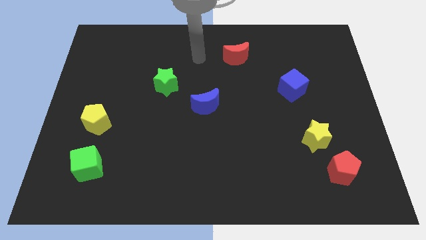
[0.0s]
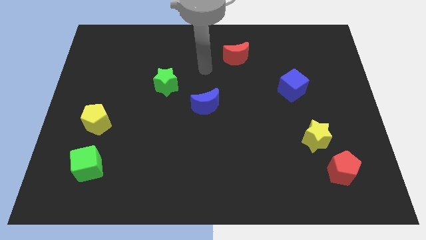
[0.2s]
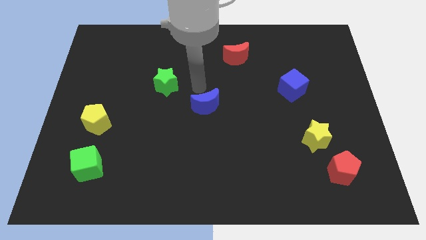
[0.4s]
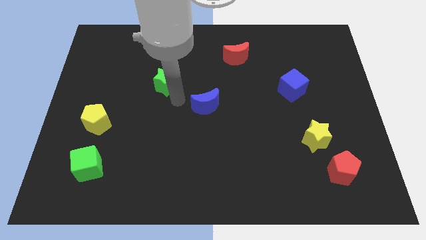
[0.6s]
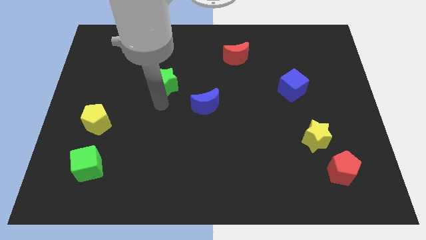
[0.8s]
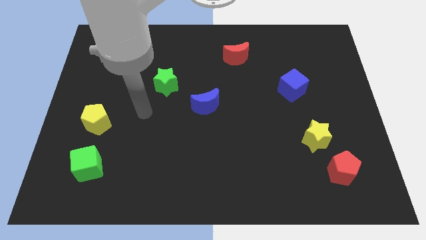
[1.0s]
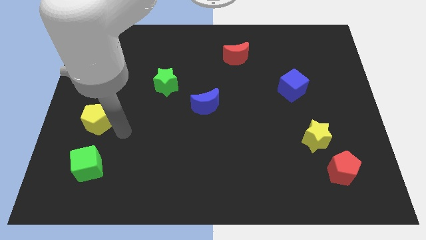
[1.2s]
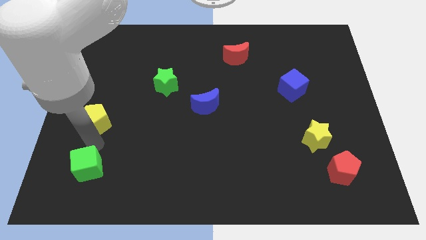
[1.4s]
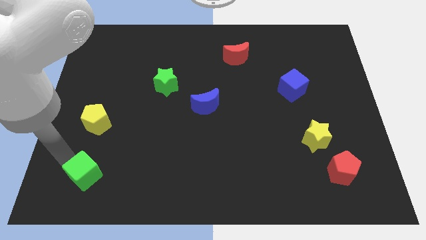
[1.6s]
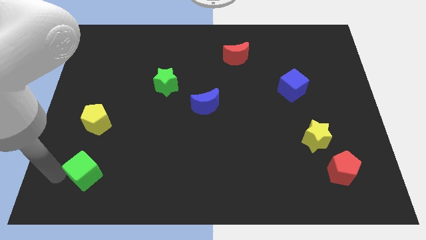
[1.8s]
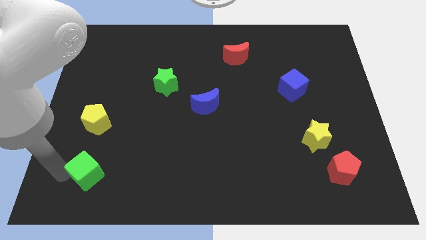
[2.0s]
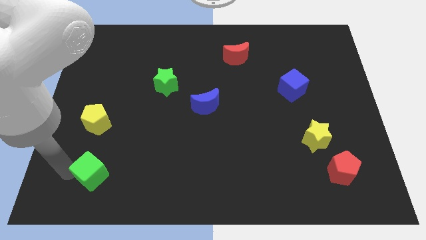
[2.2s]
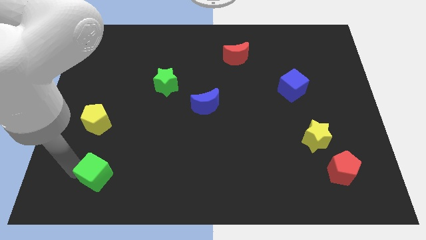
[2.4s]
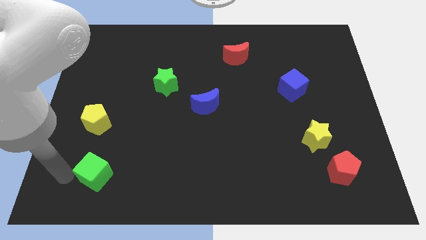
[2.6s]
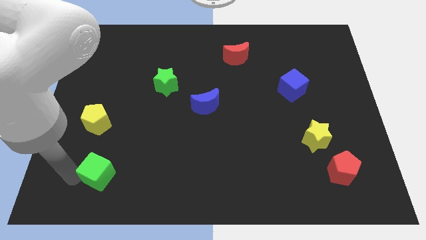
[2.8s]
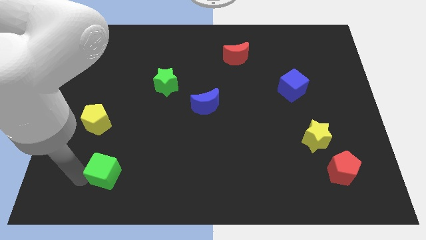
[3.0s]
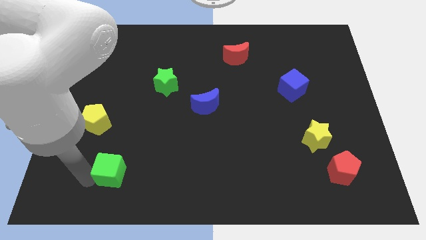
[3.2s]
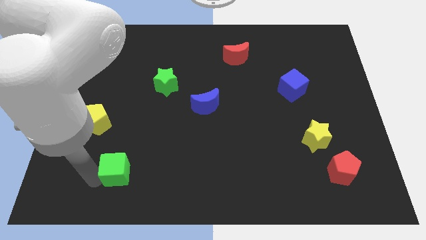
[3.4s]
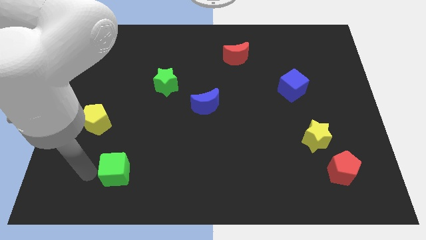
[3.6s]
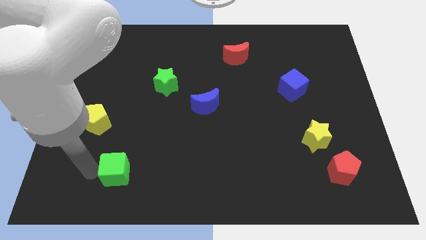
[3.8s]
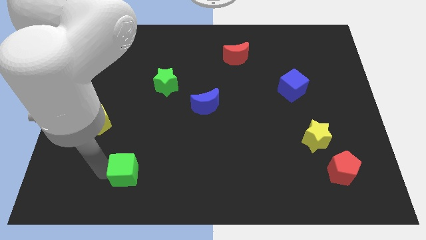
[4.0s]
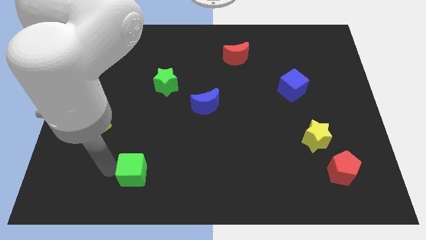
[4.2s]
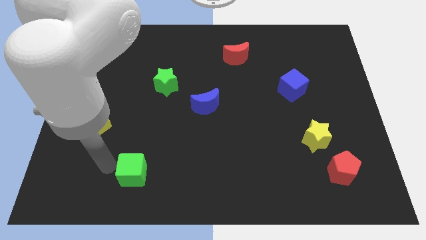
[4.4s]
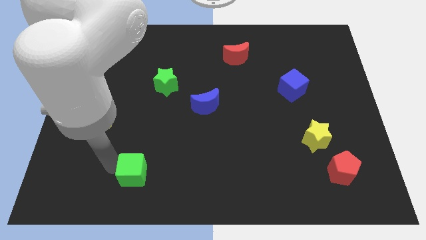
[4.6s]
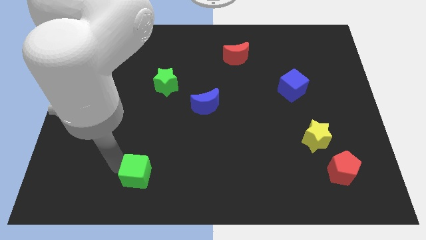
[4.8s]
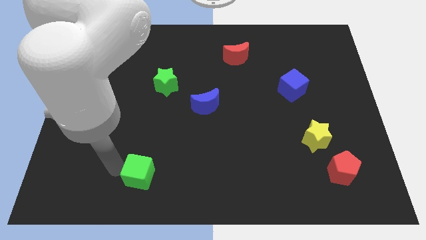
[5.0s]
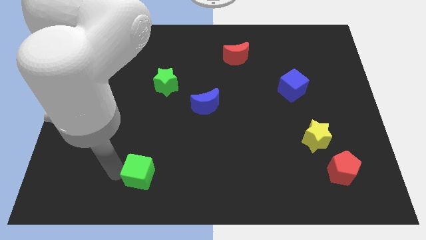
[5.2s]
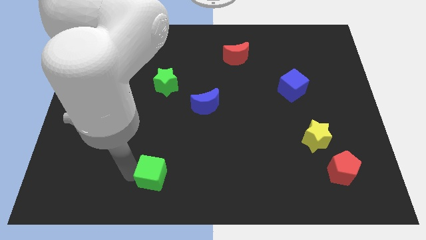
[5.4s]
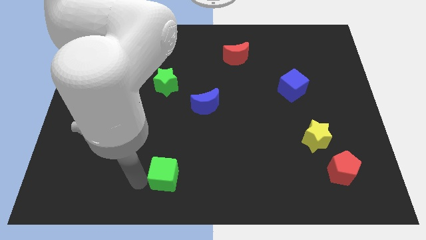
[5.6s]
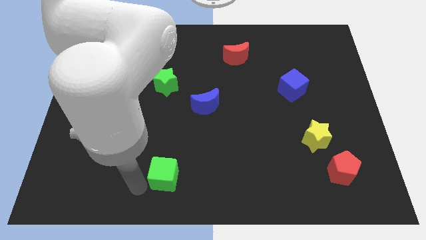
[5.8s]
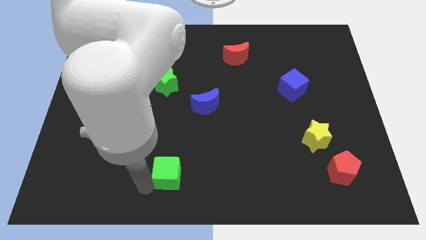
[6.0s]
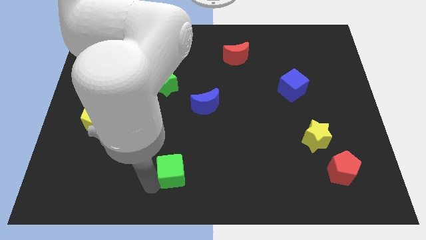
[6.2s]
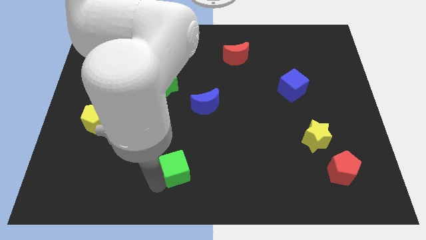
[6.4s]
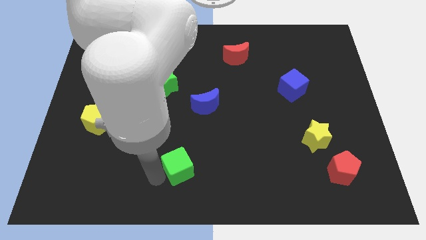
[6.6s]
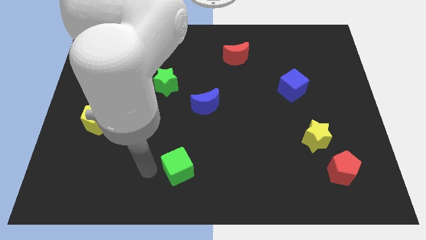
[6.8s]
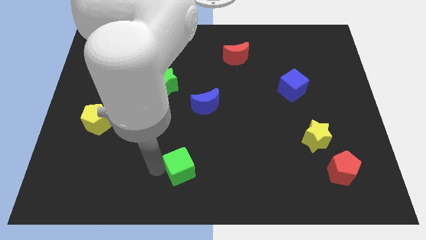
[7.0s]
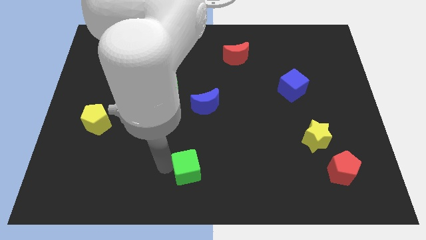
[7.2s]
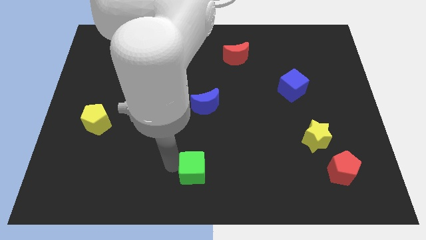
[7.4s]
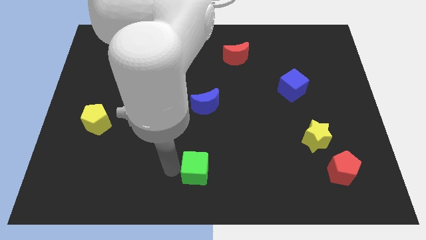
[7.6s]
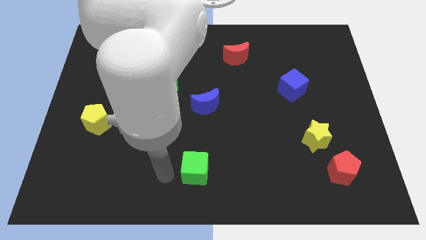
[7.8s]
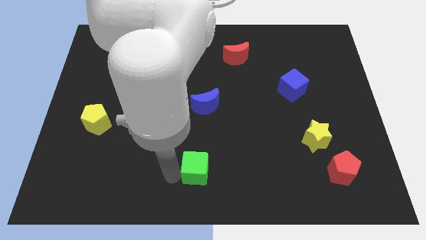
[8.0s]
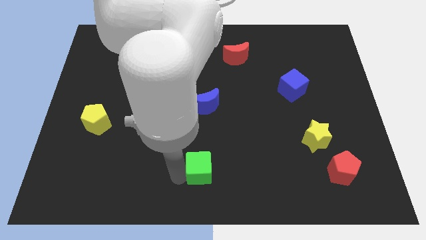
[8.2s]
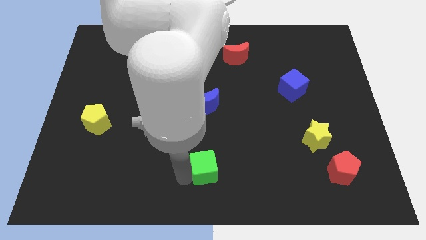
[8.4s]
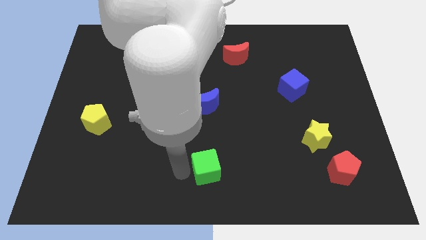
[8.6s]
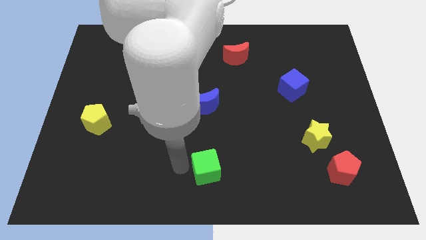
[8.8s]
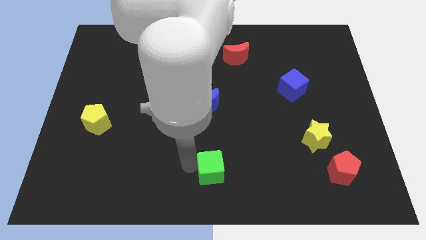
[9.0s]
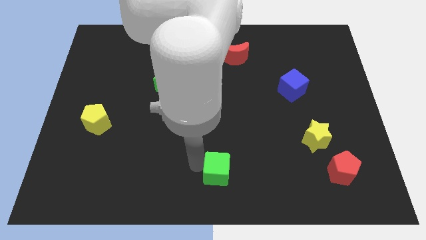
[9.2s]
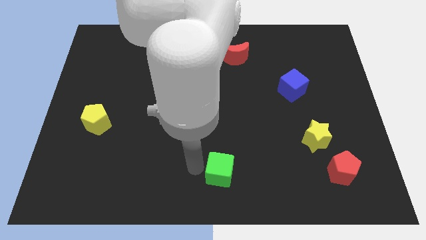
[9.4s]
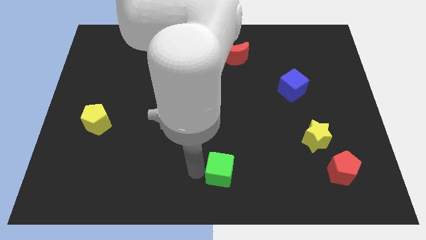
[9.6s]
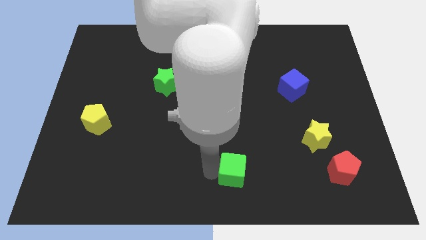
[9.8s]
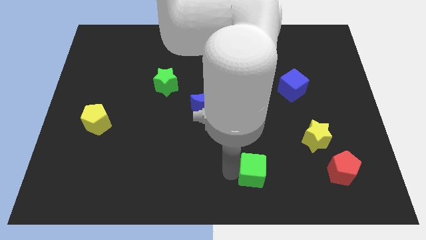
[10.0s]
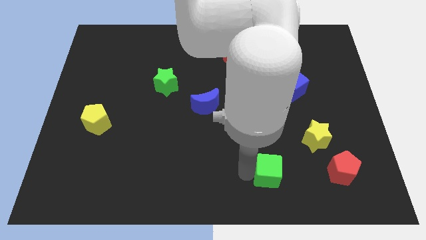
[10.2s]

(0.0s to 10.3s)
slide the green cube to the left of the red pentagon

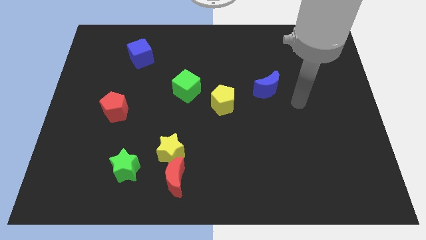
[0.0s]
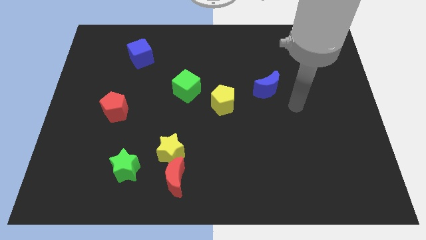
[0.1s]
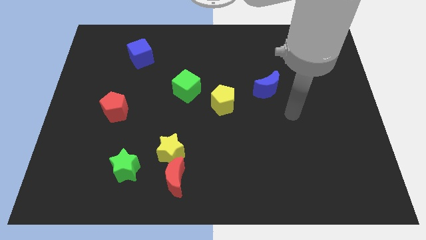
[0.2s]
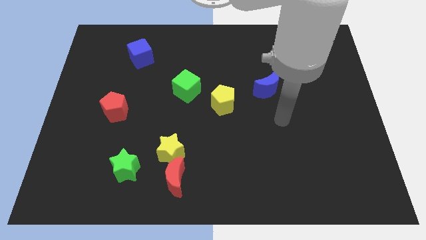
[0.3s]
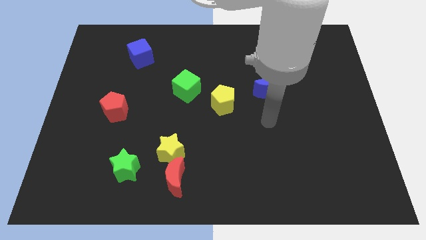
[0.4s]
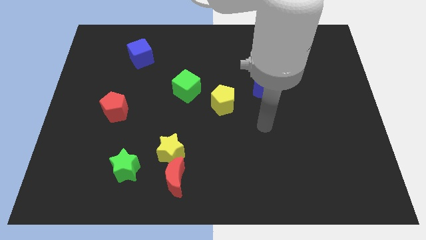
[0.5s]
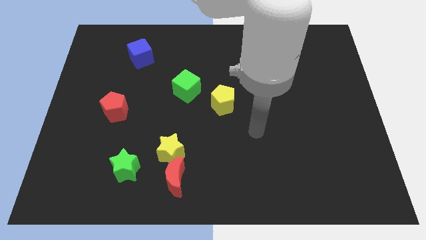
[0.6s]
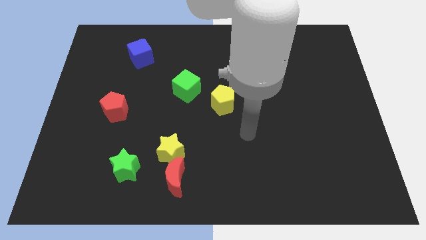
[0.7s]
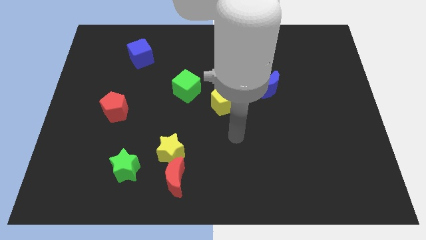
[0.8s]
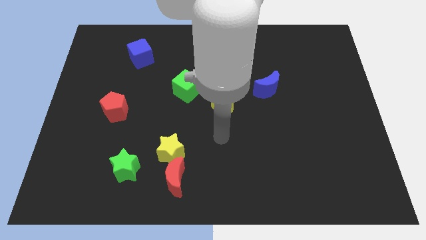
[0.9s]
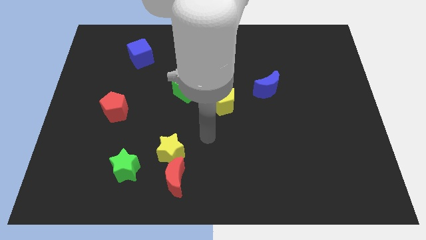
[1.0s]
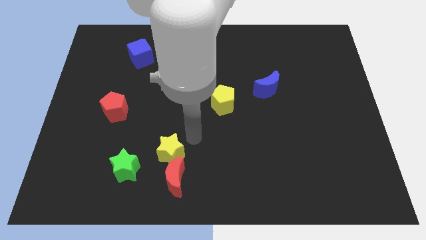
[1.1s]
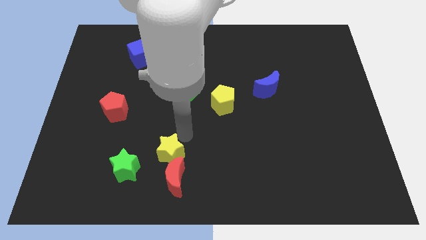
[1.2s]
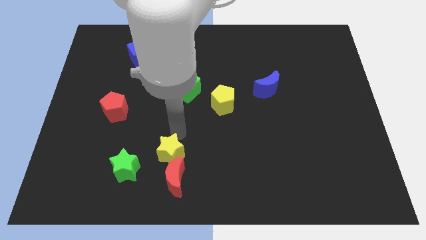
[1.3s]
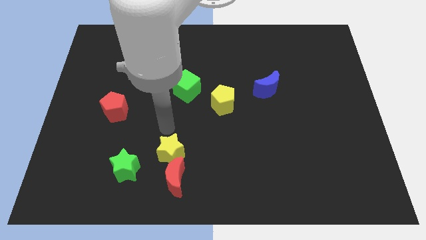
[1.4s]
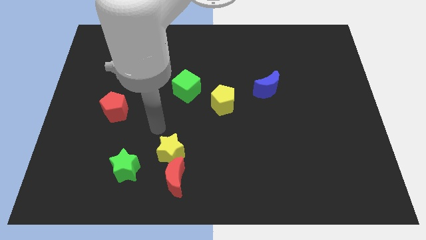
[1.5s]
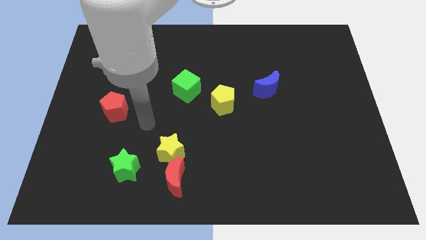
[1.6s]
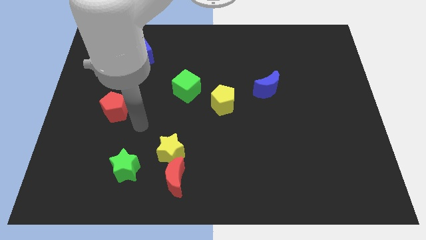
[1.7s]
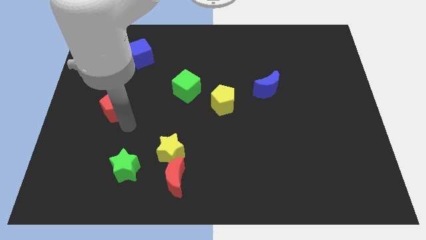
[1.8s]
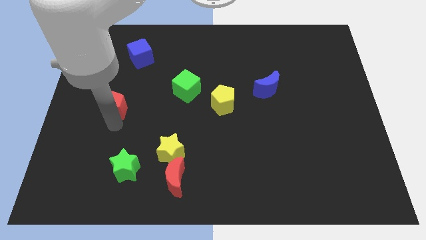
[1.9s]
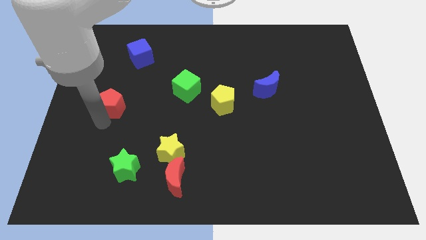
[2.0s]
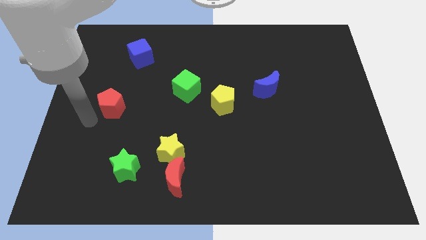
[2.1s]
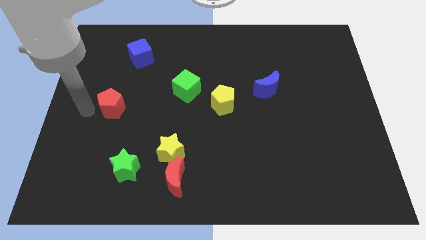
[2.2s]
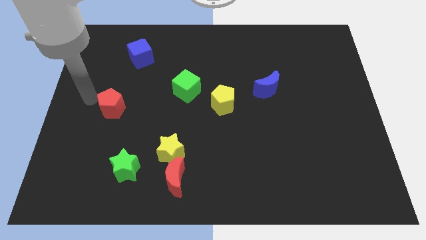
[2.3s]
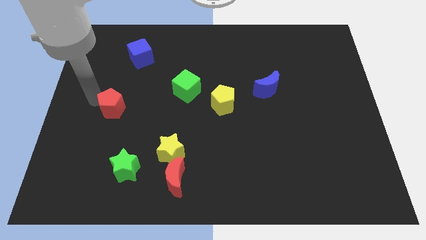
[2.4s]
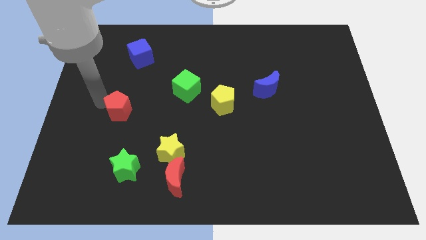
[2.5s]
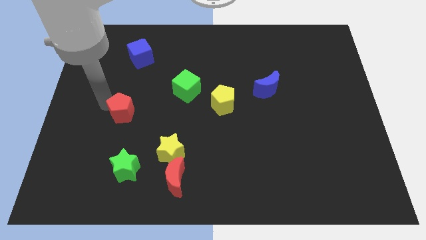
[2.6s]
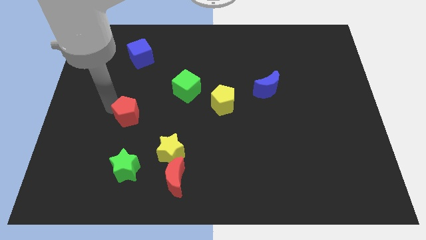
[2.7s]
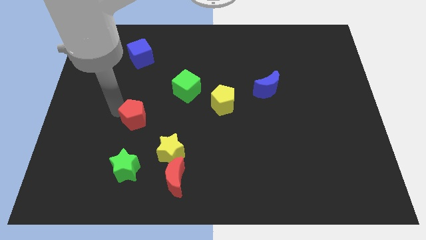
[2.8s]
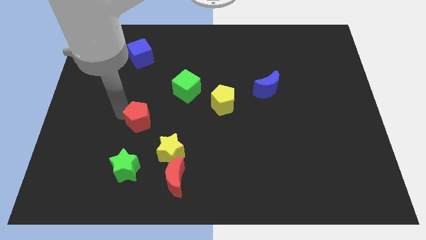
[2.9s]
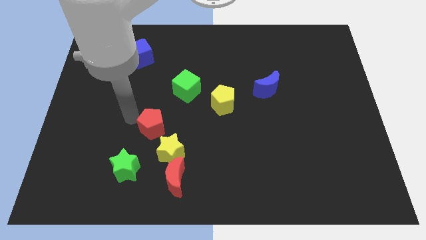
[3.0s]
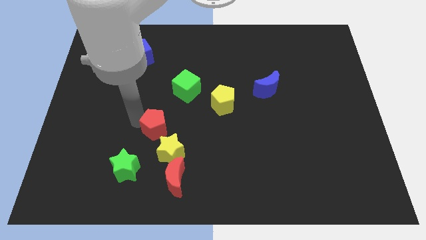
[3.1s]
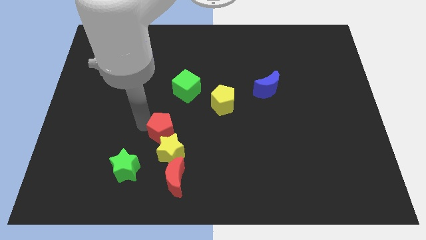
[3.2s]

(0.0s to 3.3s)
push the red pentagon to the bottom of the green cube
